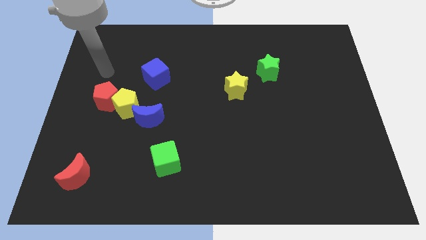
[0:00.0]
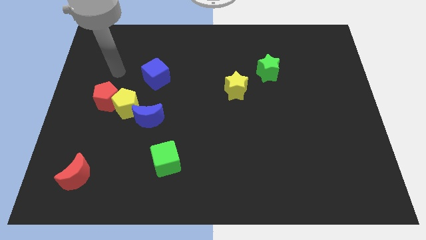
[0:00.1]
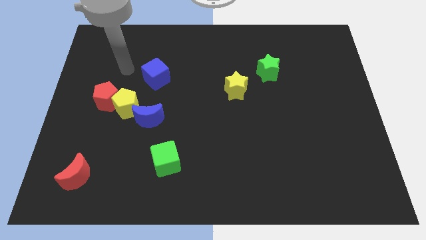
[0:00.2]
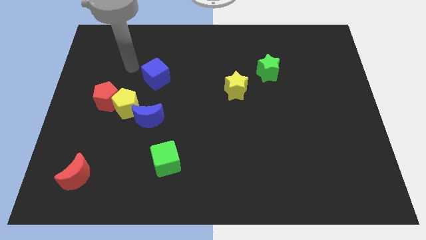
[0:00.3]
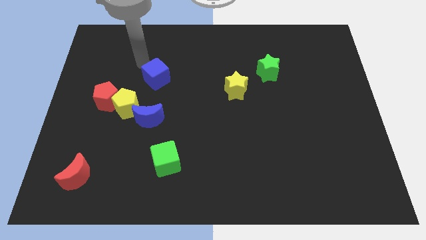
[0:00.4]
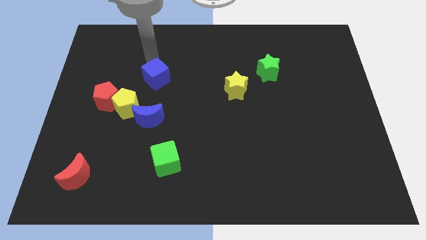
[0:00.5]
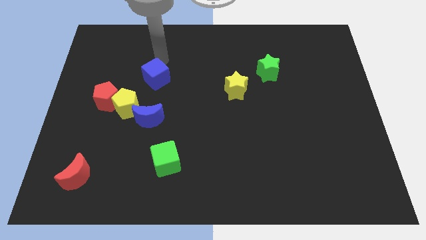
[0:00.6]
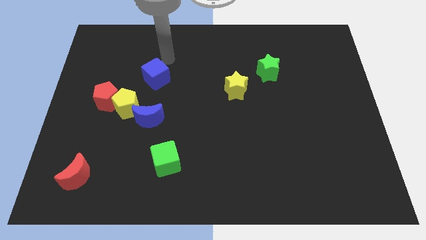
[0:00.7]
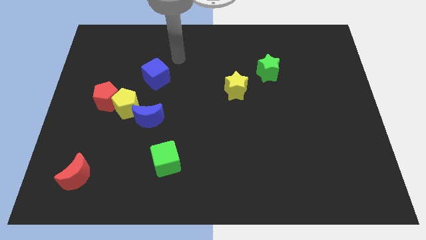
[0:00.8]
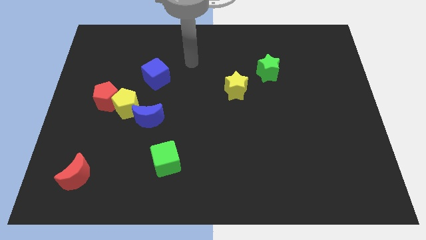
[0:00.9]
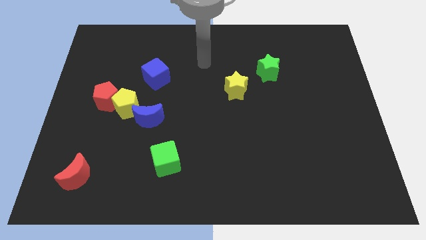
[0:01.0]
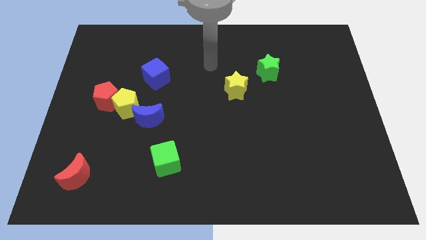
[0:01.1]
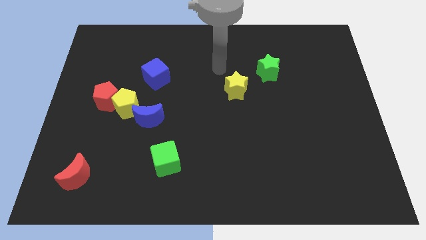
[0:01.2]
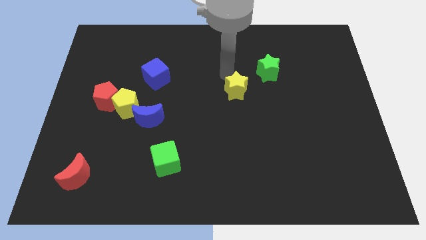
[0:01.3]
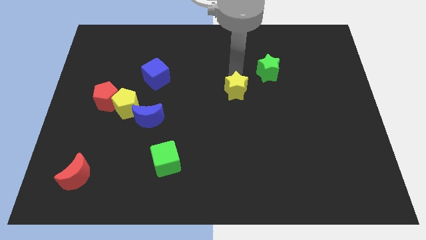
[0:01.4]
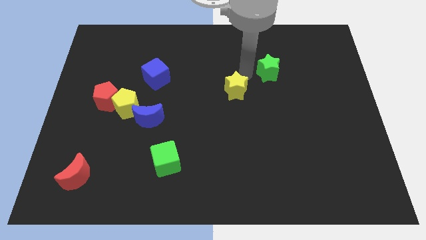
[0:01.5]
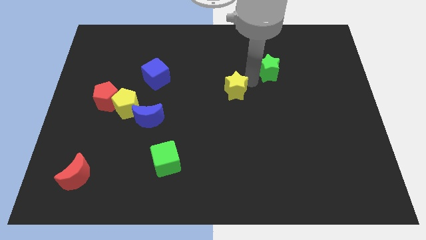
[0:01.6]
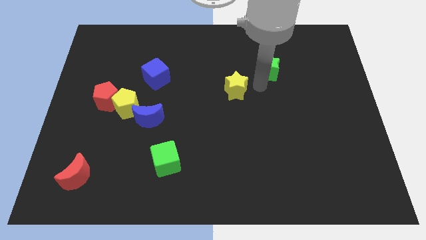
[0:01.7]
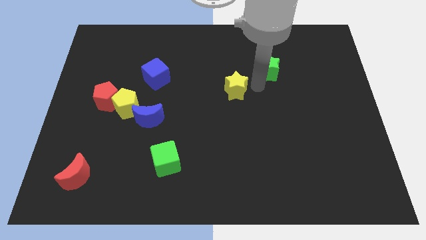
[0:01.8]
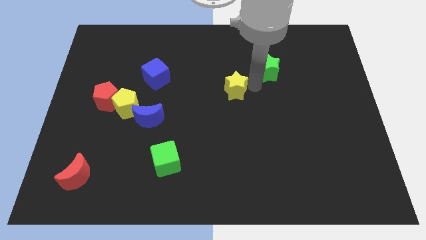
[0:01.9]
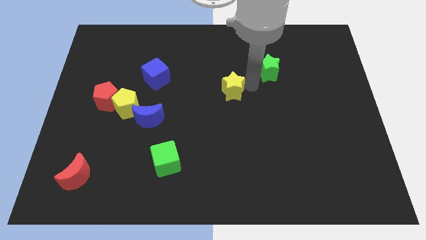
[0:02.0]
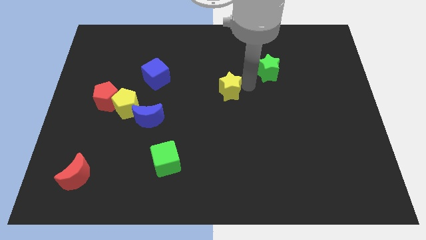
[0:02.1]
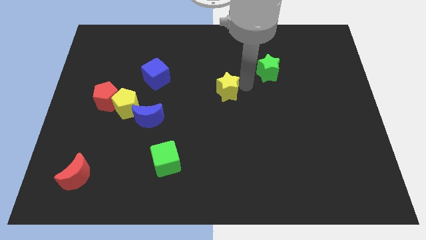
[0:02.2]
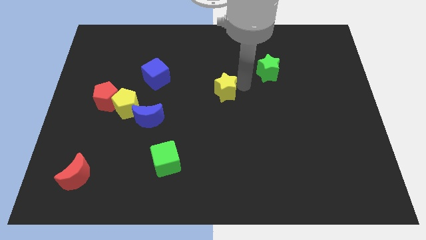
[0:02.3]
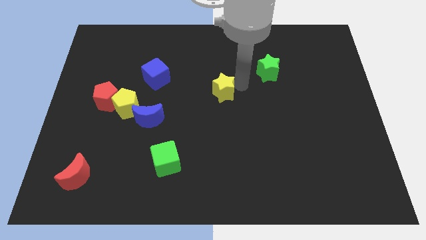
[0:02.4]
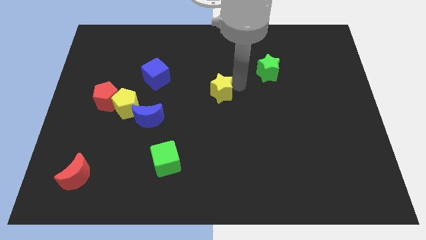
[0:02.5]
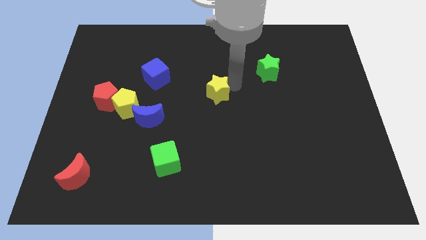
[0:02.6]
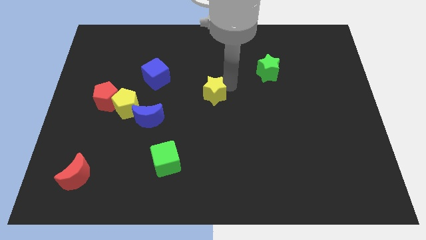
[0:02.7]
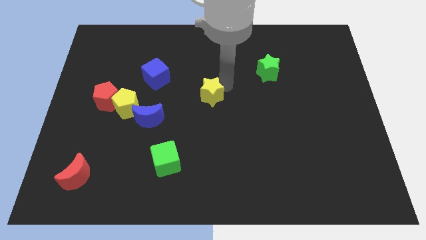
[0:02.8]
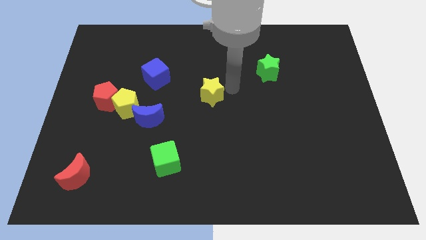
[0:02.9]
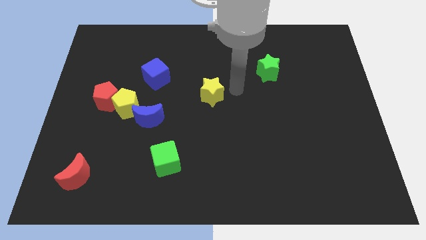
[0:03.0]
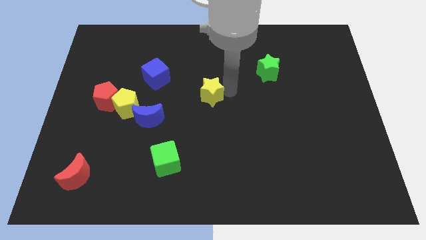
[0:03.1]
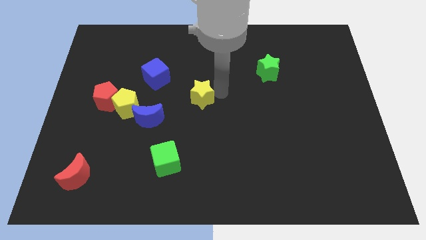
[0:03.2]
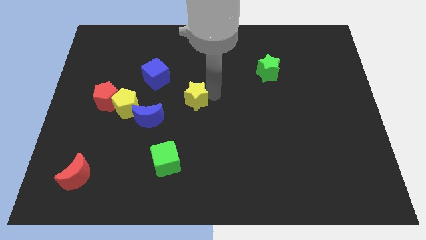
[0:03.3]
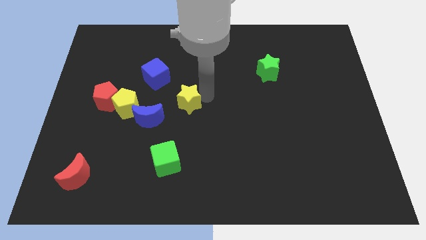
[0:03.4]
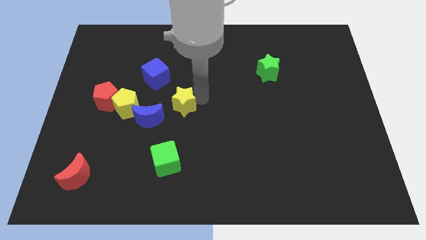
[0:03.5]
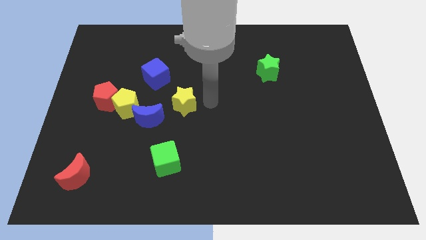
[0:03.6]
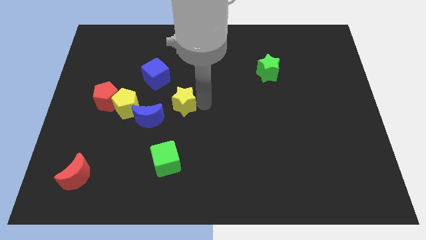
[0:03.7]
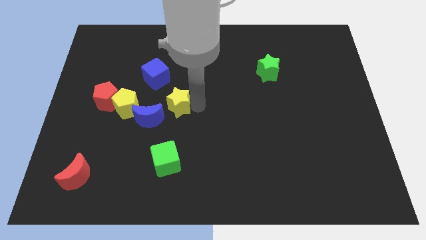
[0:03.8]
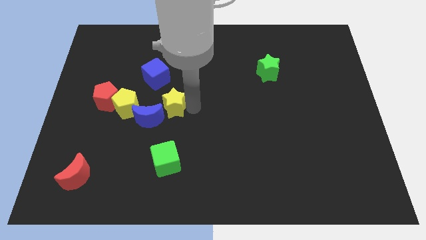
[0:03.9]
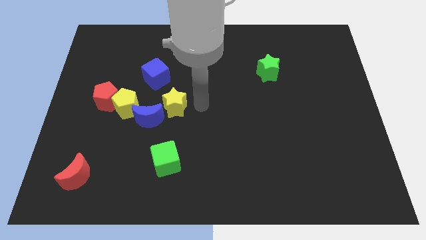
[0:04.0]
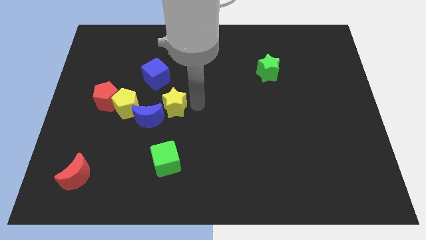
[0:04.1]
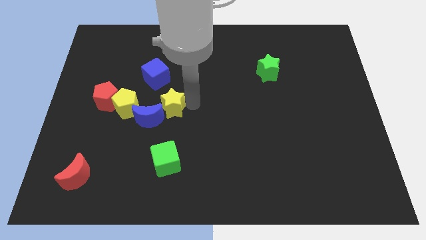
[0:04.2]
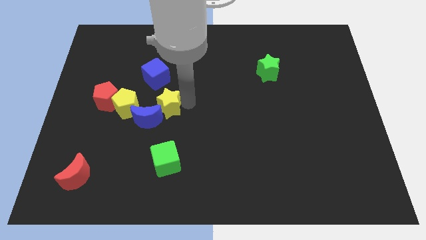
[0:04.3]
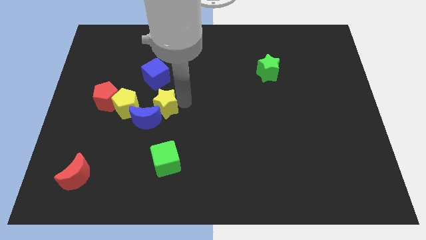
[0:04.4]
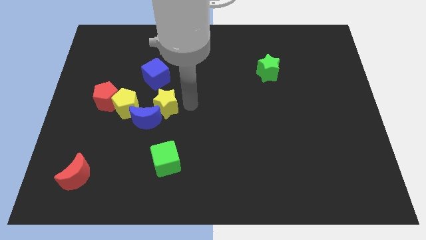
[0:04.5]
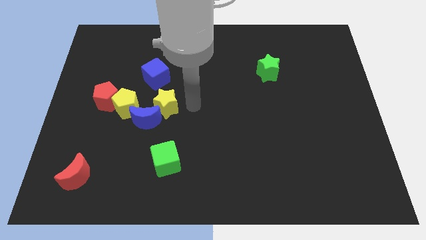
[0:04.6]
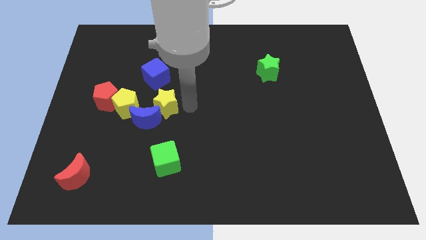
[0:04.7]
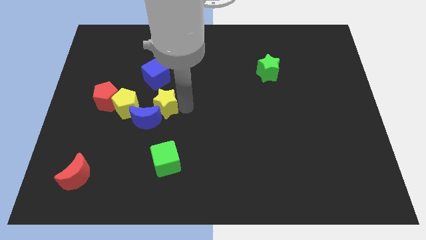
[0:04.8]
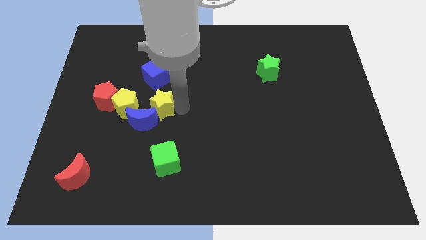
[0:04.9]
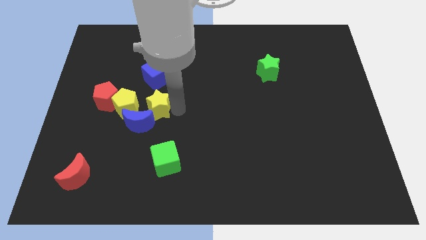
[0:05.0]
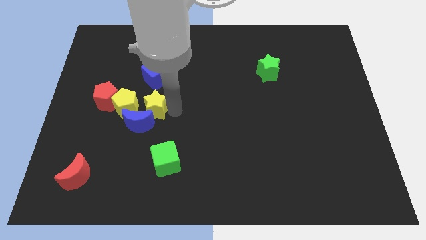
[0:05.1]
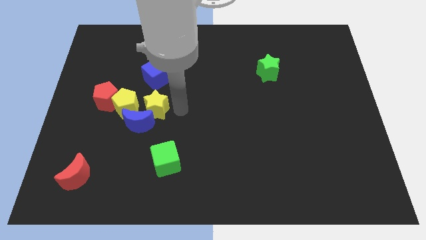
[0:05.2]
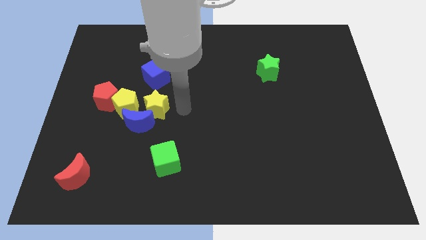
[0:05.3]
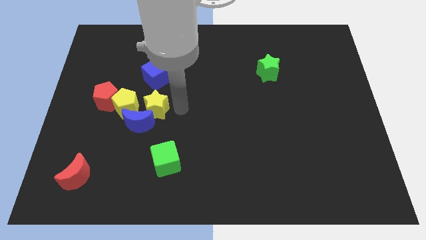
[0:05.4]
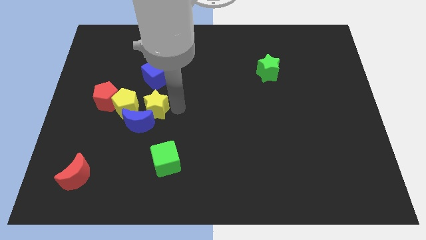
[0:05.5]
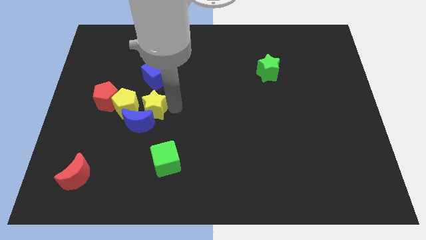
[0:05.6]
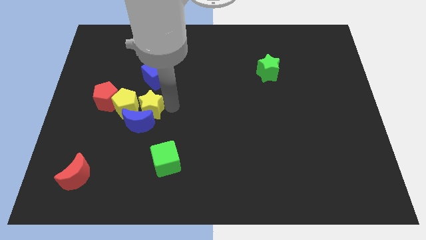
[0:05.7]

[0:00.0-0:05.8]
move the yellow star close to the yellow pentagon

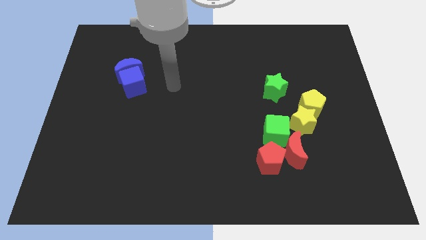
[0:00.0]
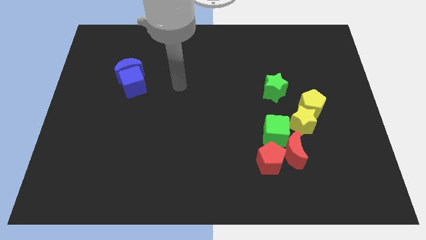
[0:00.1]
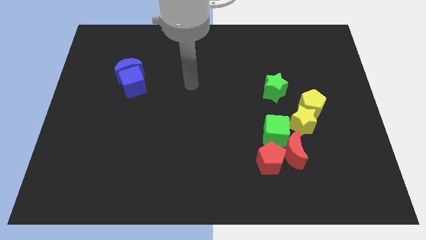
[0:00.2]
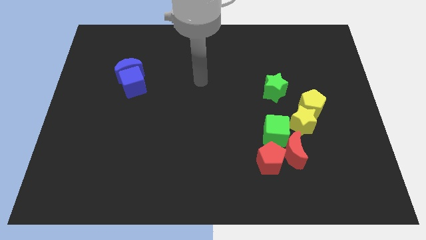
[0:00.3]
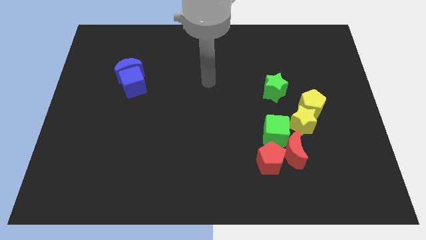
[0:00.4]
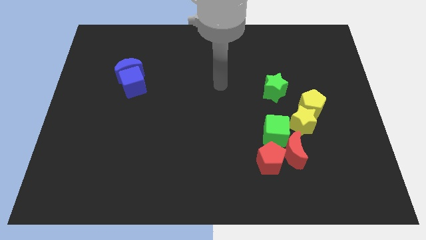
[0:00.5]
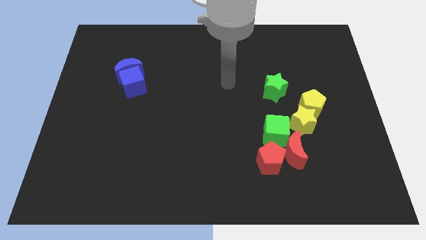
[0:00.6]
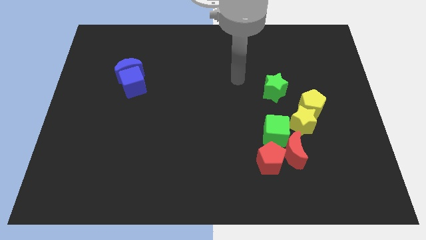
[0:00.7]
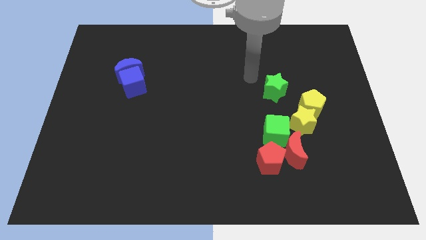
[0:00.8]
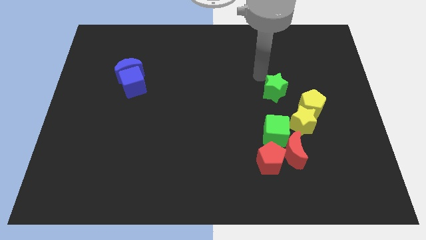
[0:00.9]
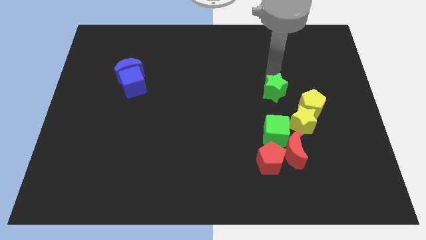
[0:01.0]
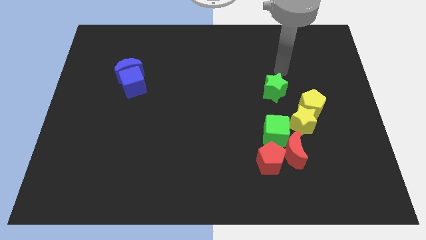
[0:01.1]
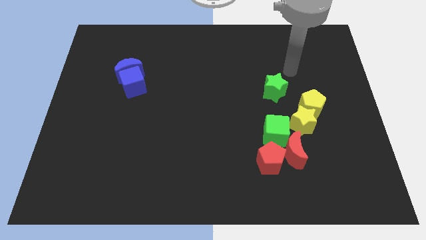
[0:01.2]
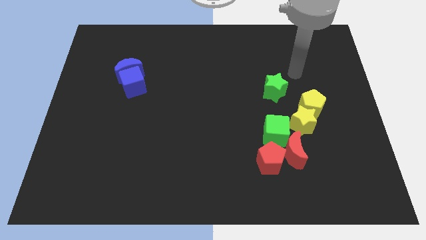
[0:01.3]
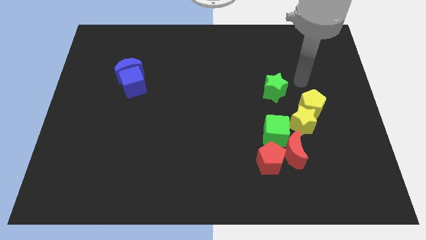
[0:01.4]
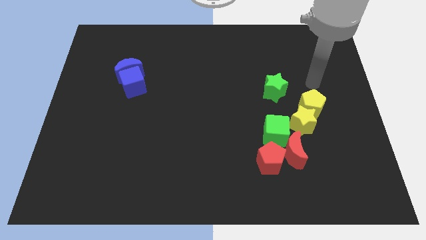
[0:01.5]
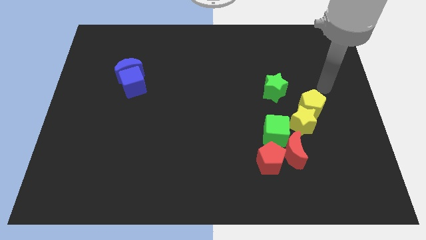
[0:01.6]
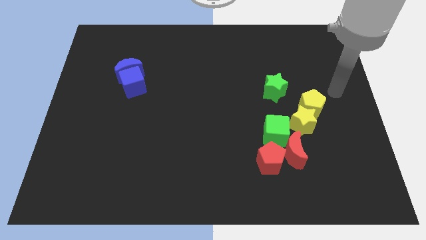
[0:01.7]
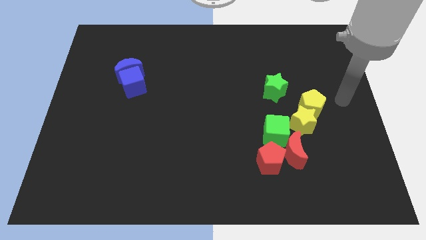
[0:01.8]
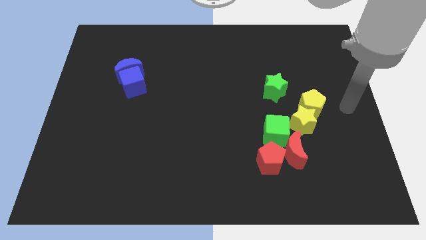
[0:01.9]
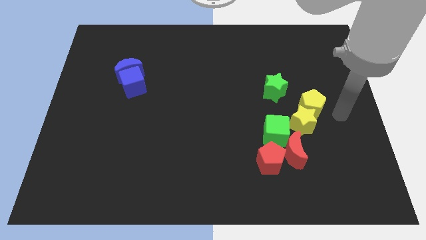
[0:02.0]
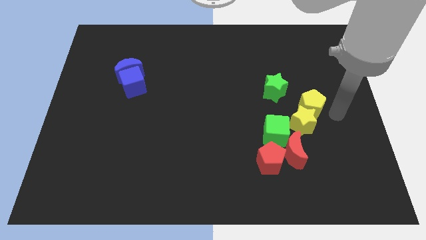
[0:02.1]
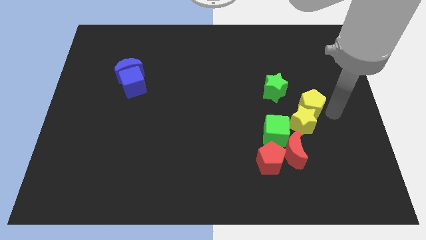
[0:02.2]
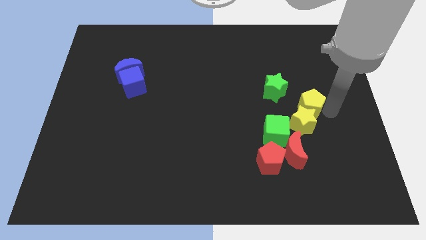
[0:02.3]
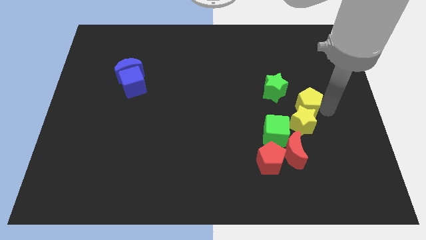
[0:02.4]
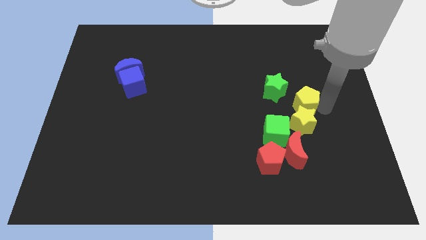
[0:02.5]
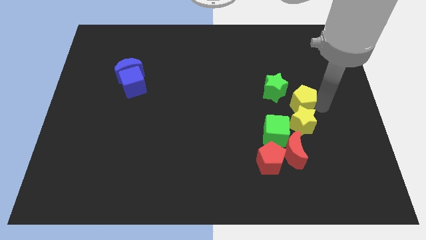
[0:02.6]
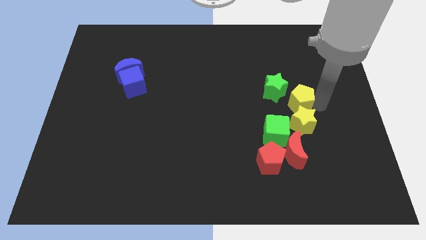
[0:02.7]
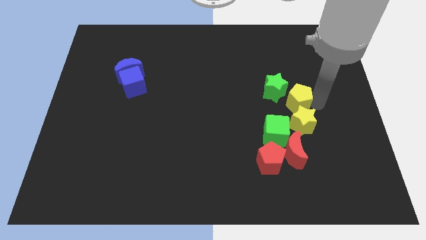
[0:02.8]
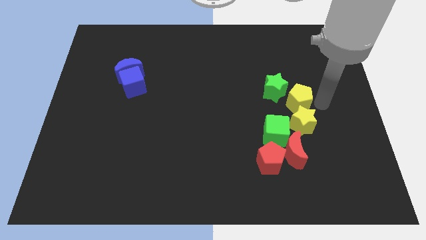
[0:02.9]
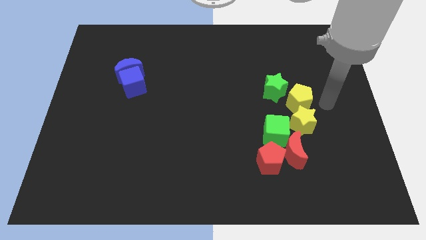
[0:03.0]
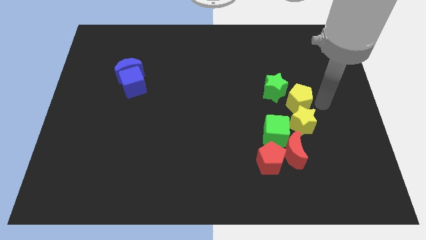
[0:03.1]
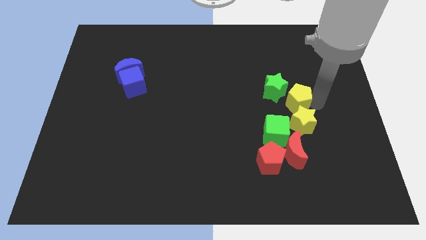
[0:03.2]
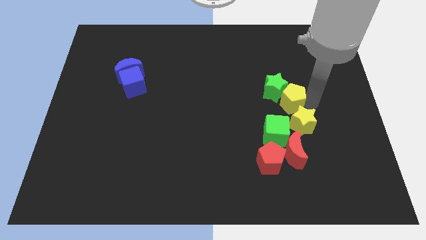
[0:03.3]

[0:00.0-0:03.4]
slide the yellow pentagon next to the green star
